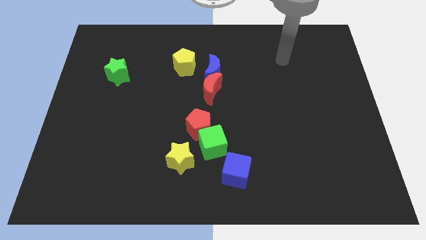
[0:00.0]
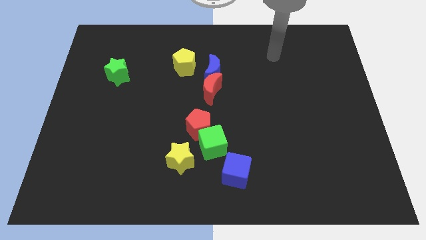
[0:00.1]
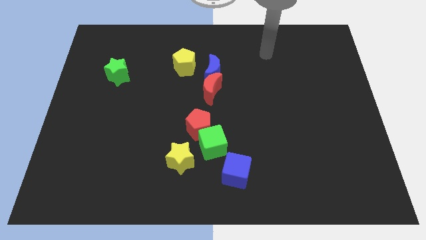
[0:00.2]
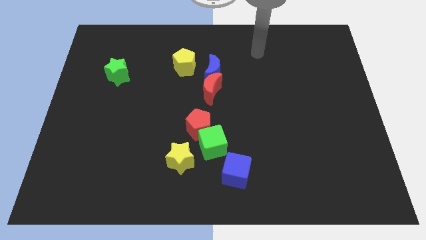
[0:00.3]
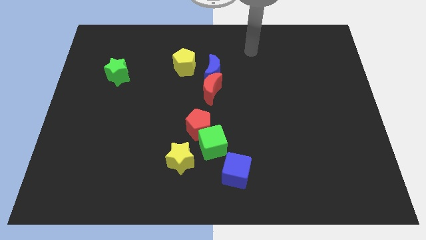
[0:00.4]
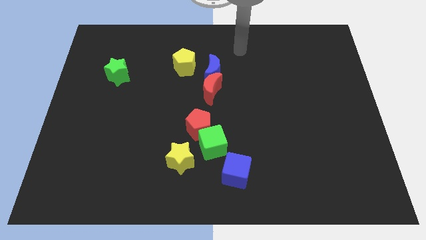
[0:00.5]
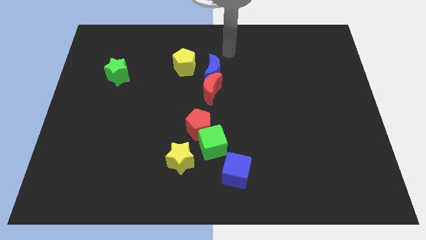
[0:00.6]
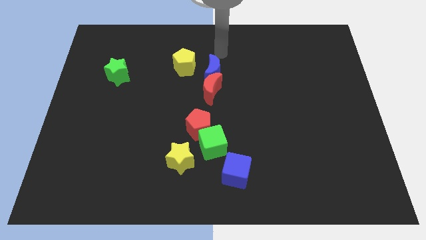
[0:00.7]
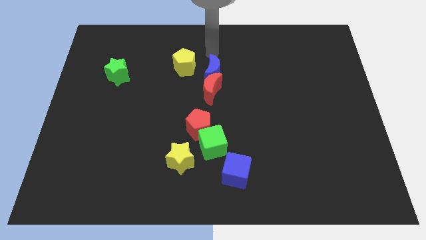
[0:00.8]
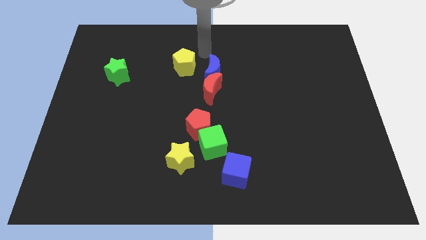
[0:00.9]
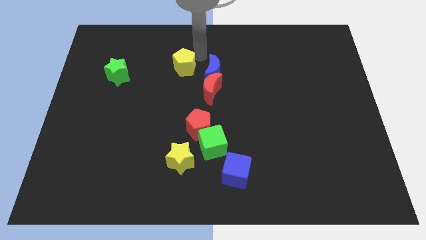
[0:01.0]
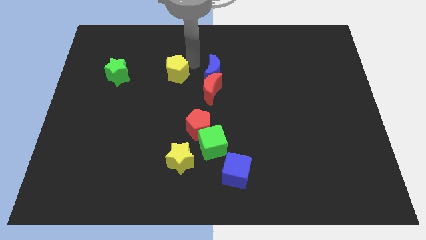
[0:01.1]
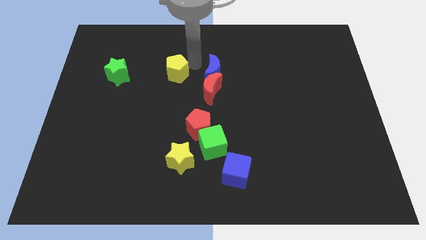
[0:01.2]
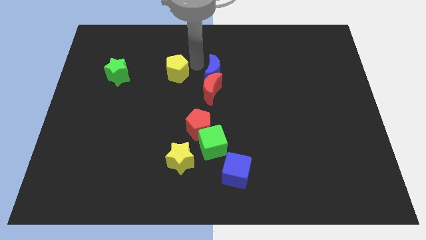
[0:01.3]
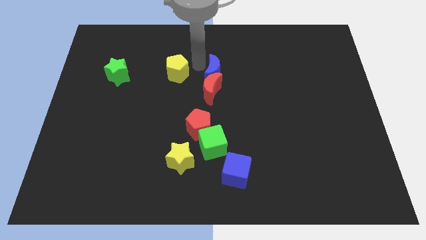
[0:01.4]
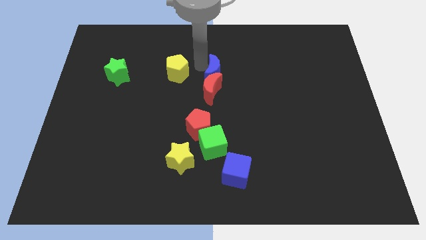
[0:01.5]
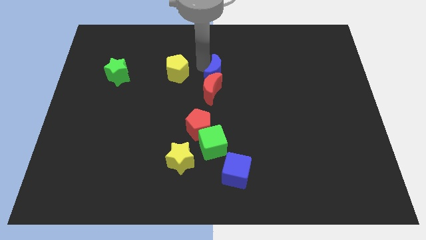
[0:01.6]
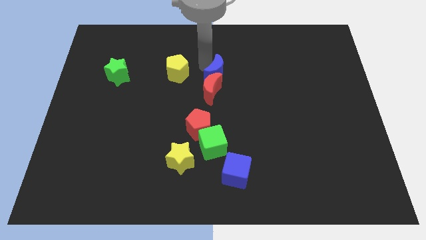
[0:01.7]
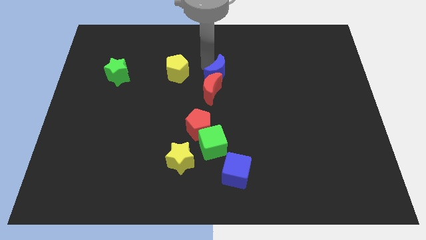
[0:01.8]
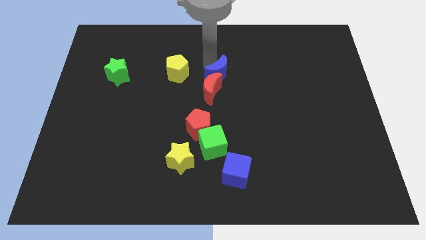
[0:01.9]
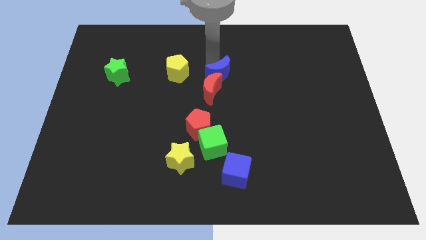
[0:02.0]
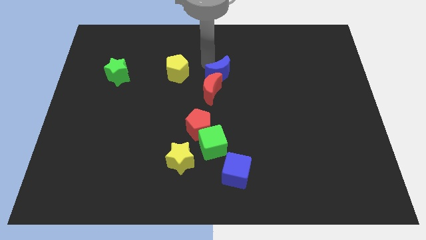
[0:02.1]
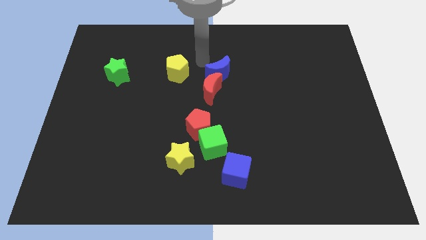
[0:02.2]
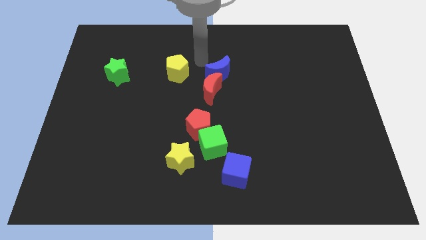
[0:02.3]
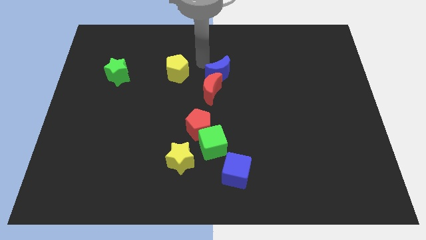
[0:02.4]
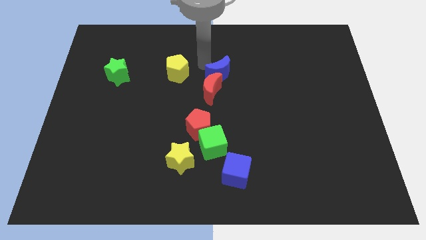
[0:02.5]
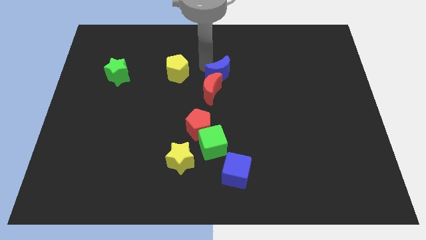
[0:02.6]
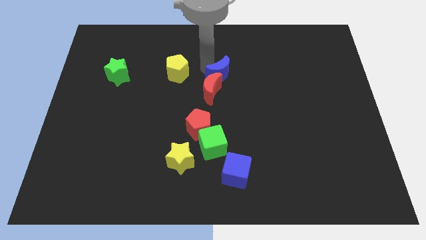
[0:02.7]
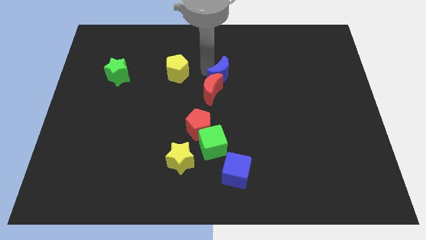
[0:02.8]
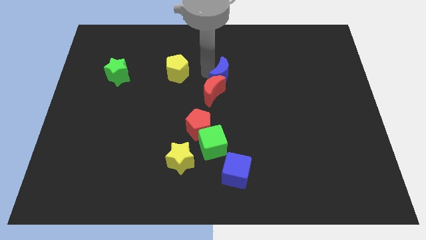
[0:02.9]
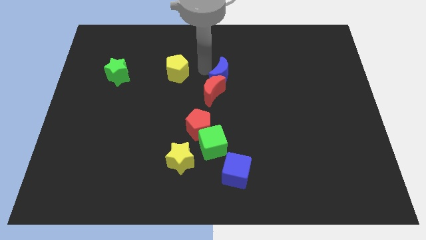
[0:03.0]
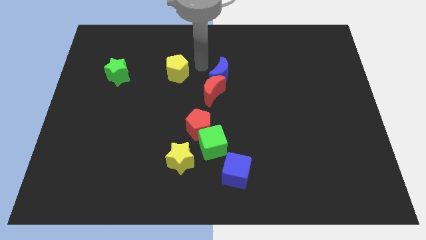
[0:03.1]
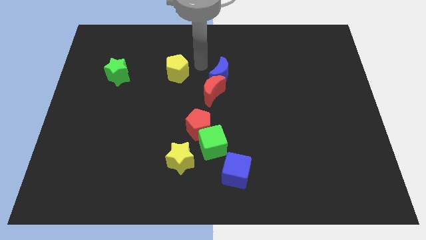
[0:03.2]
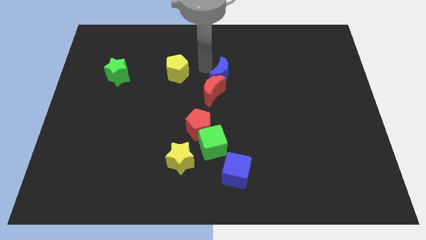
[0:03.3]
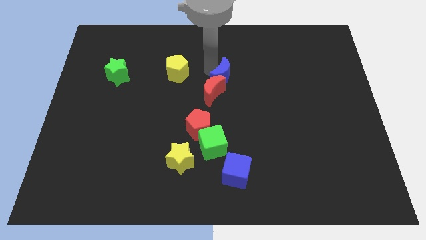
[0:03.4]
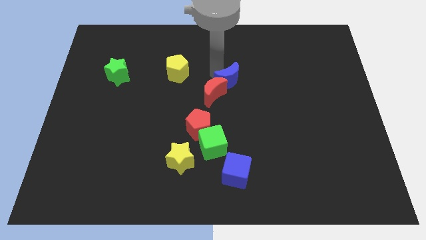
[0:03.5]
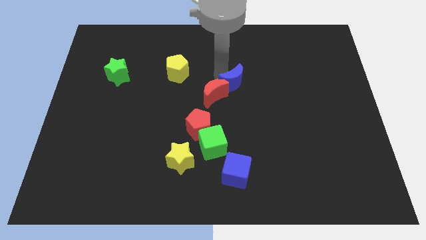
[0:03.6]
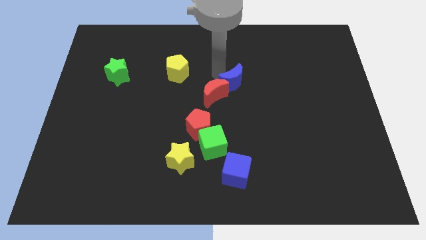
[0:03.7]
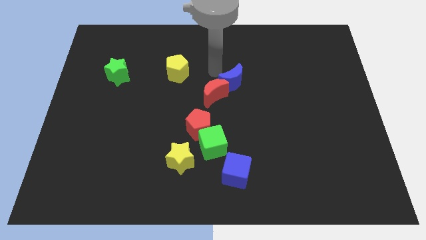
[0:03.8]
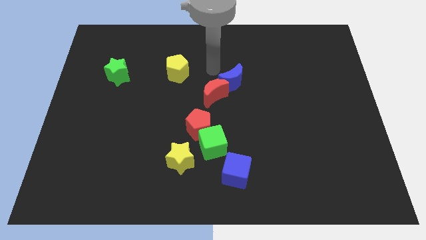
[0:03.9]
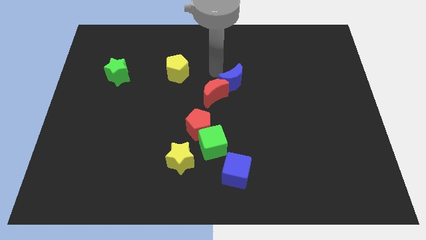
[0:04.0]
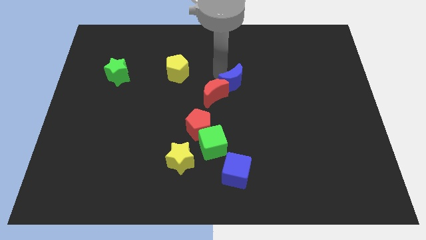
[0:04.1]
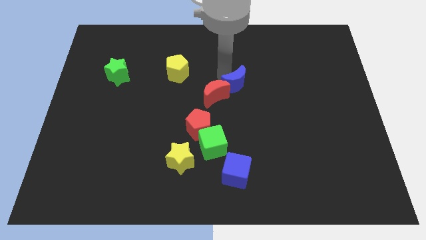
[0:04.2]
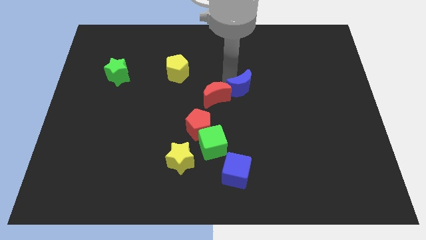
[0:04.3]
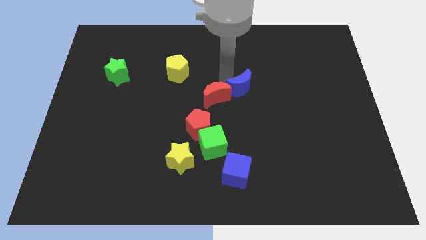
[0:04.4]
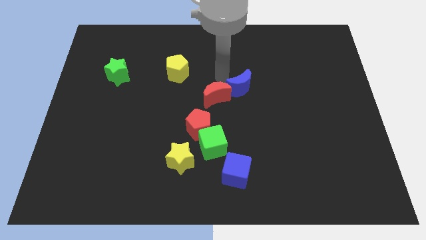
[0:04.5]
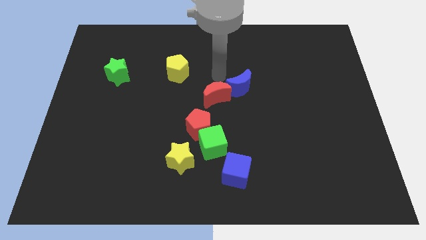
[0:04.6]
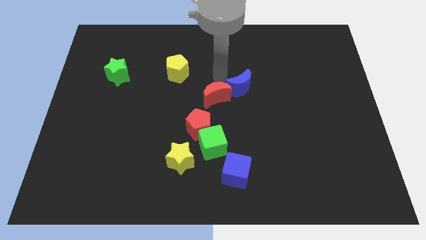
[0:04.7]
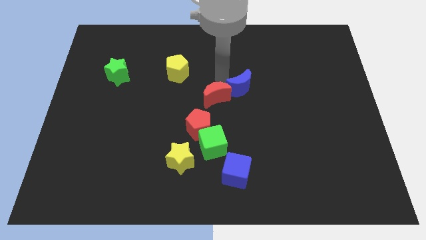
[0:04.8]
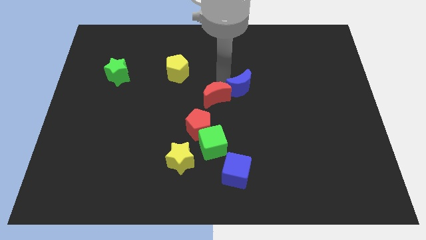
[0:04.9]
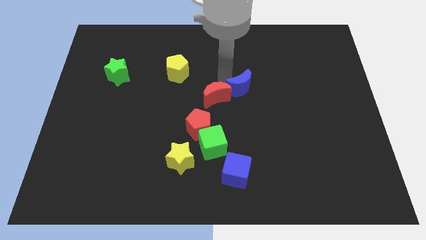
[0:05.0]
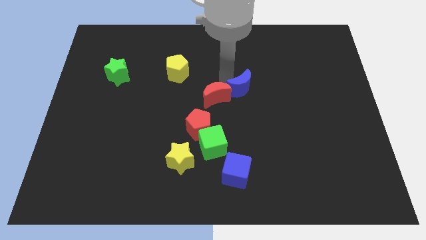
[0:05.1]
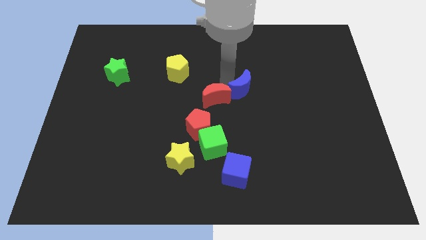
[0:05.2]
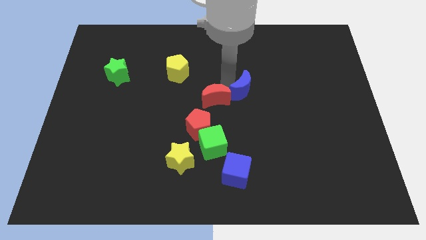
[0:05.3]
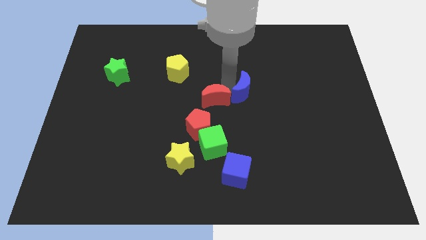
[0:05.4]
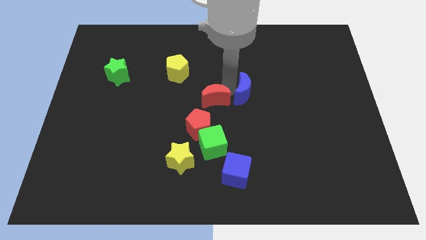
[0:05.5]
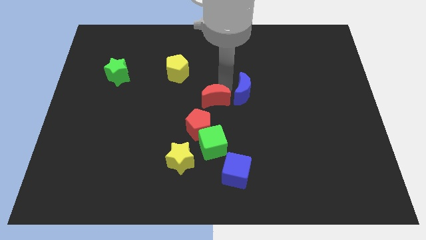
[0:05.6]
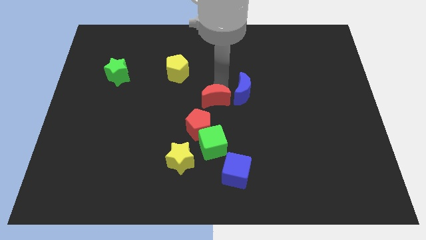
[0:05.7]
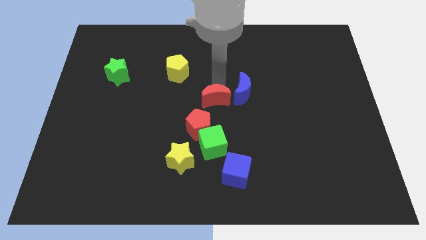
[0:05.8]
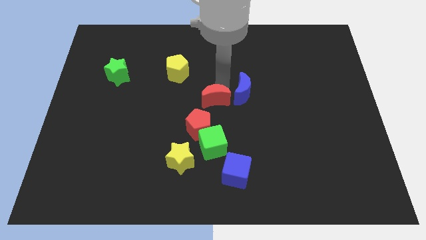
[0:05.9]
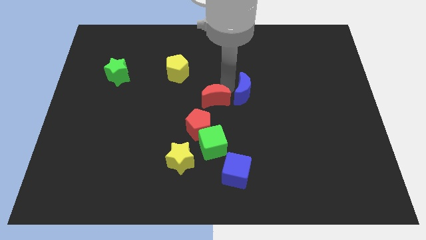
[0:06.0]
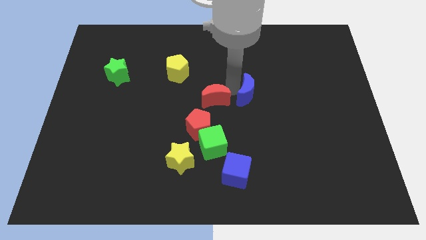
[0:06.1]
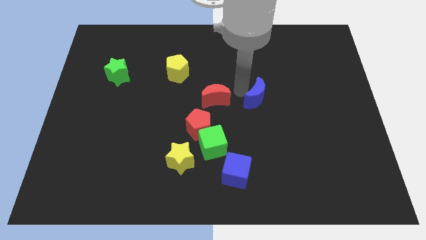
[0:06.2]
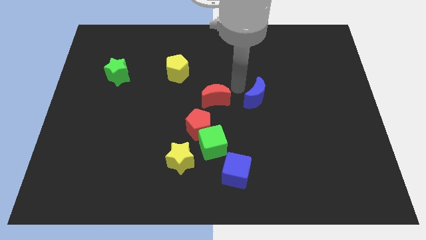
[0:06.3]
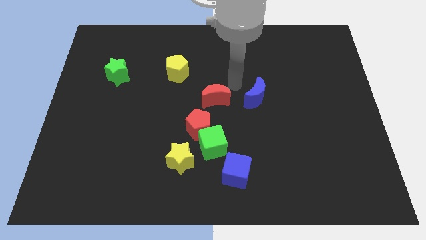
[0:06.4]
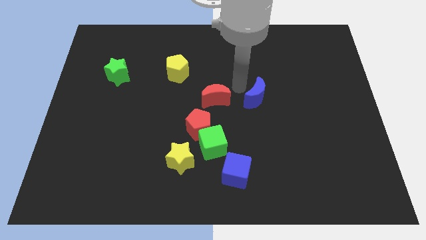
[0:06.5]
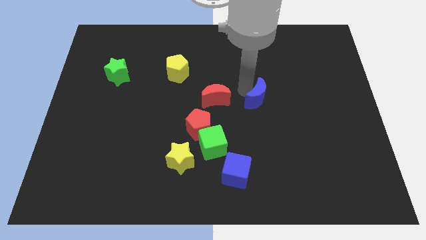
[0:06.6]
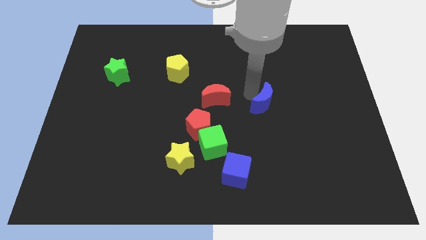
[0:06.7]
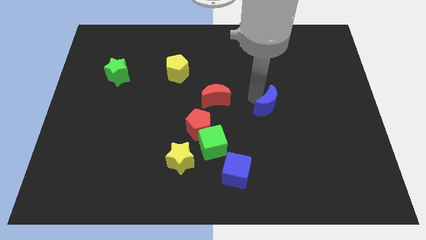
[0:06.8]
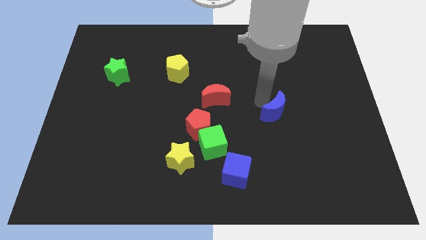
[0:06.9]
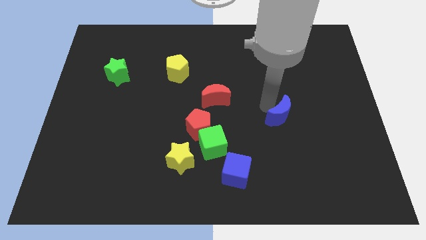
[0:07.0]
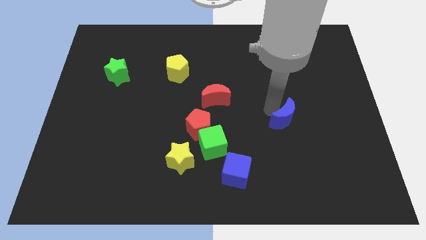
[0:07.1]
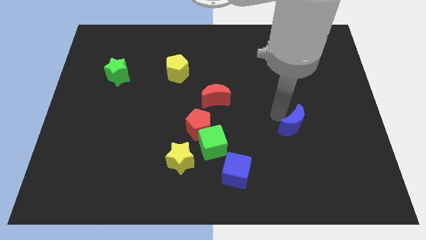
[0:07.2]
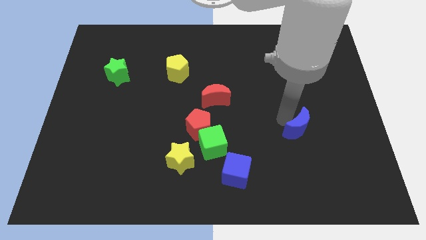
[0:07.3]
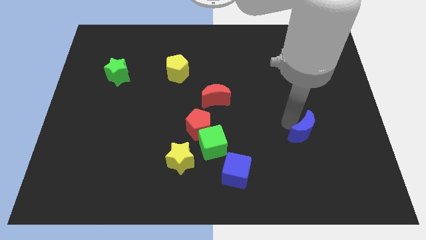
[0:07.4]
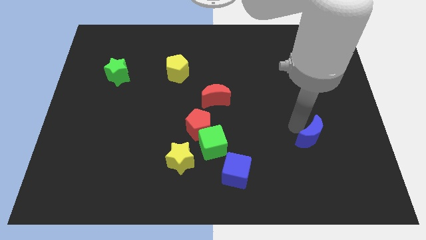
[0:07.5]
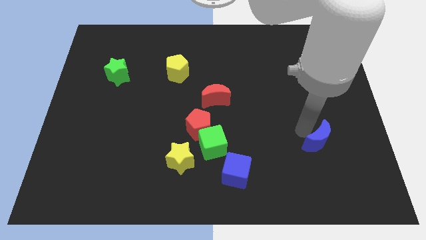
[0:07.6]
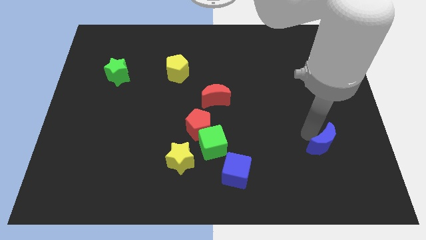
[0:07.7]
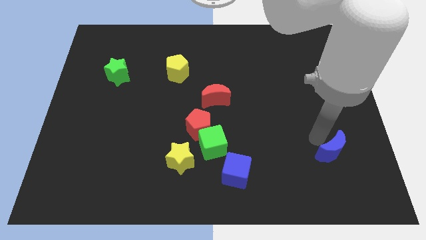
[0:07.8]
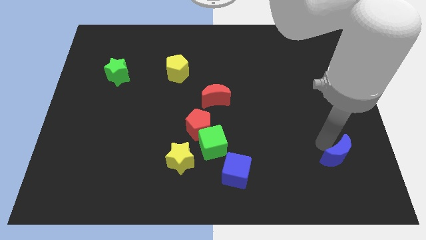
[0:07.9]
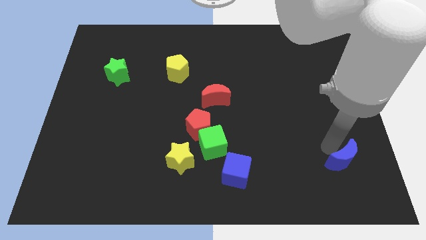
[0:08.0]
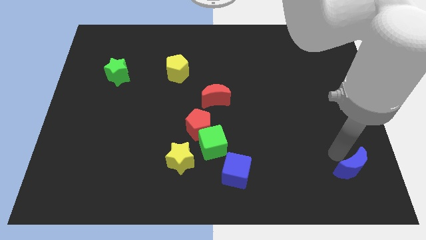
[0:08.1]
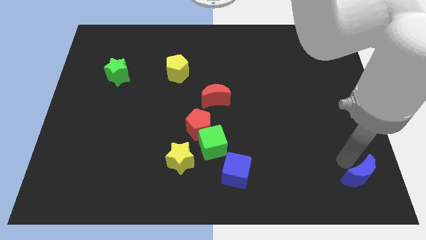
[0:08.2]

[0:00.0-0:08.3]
move the blue moon to the bottom right of the board
